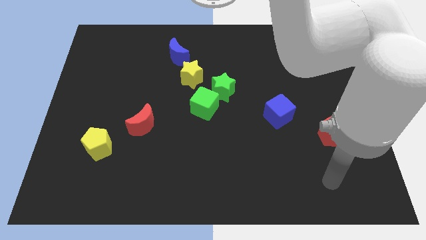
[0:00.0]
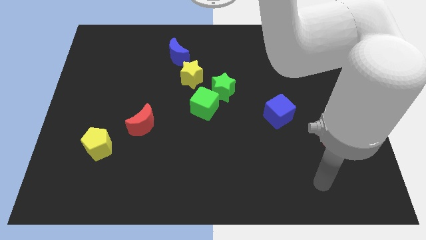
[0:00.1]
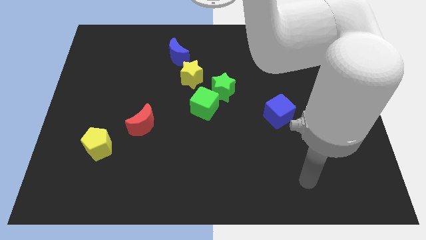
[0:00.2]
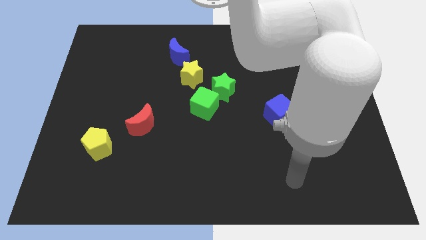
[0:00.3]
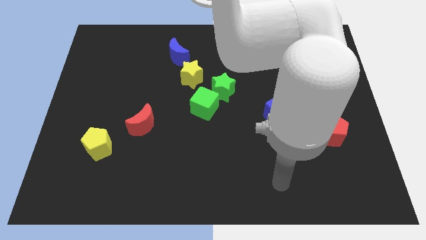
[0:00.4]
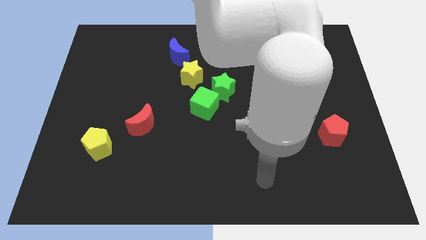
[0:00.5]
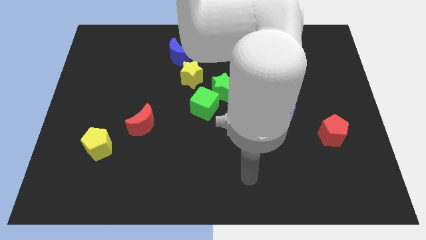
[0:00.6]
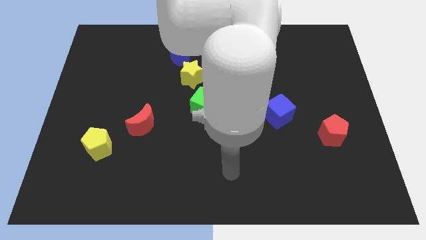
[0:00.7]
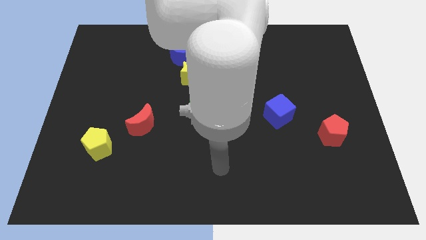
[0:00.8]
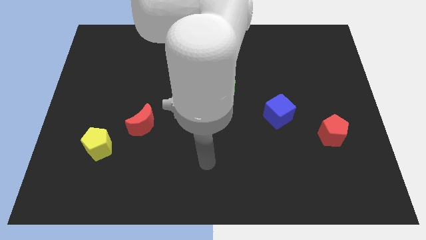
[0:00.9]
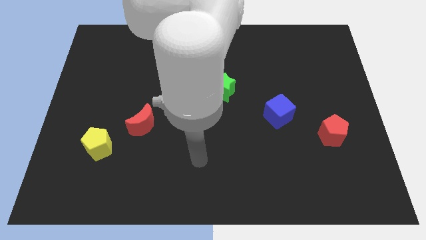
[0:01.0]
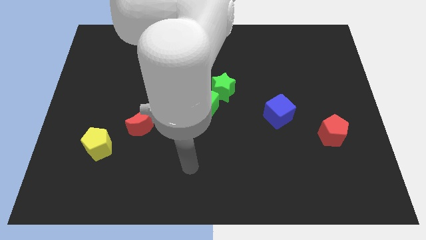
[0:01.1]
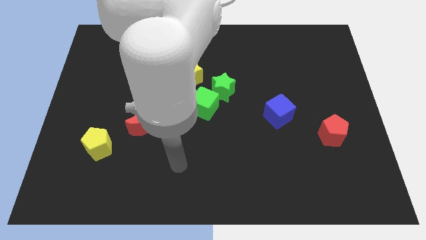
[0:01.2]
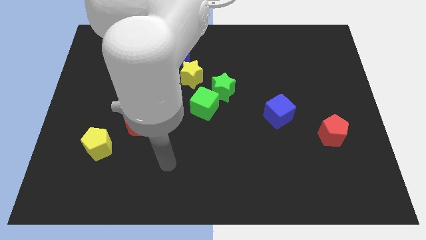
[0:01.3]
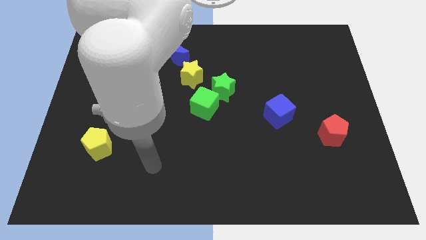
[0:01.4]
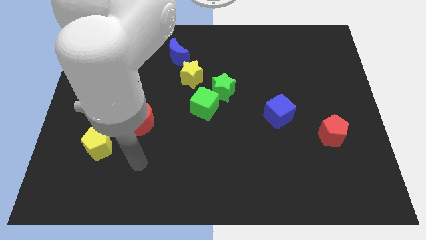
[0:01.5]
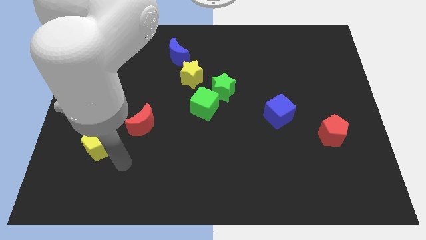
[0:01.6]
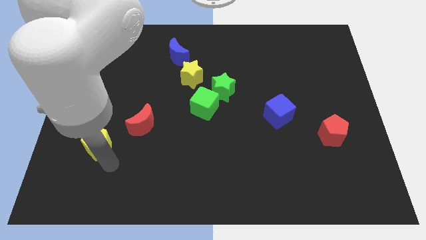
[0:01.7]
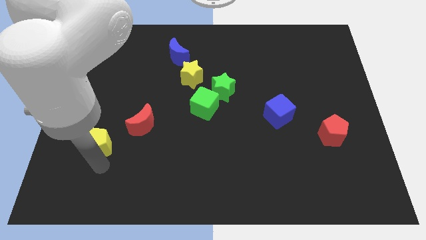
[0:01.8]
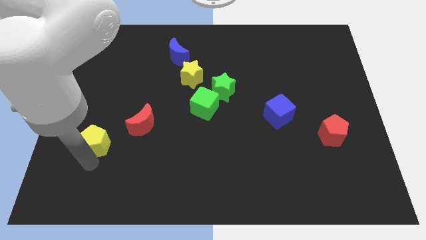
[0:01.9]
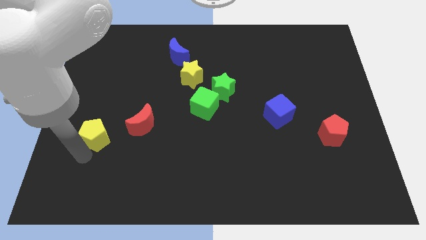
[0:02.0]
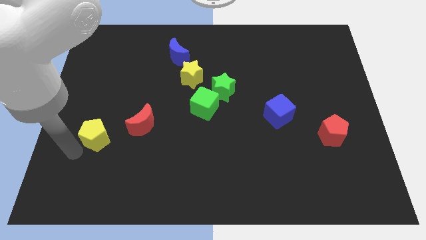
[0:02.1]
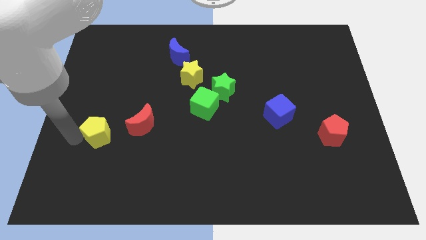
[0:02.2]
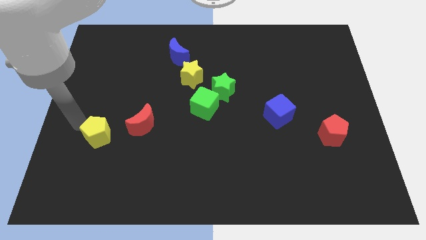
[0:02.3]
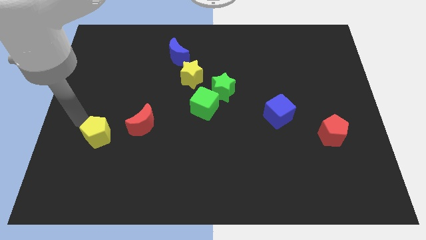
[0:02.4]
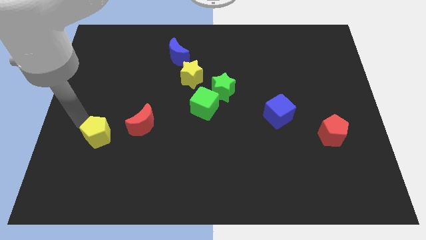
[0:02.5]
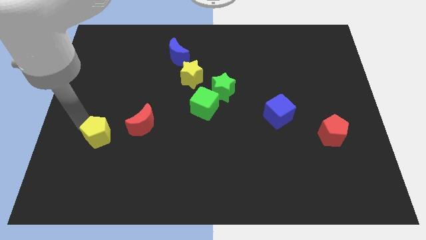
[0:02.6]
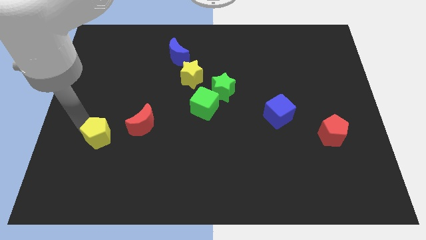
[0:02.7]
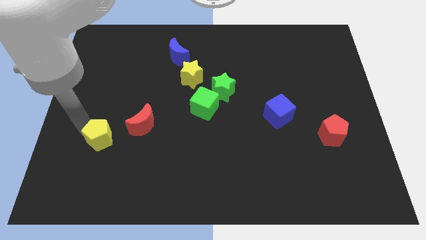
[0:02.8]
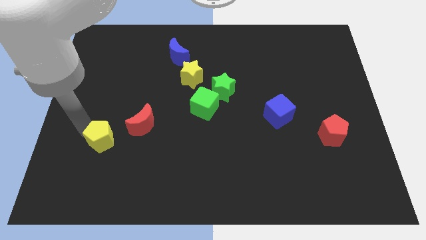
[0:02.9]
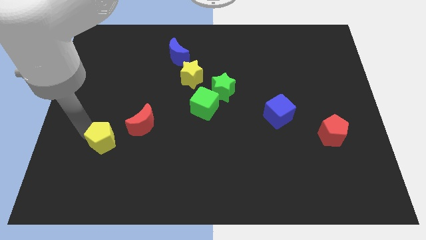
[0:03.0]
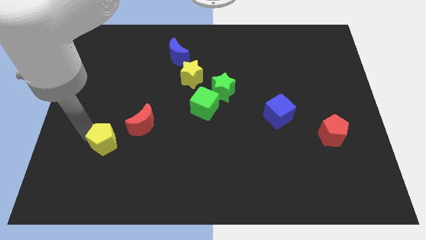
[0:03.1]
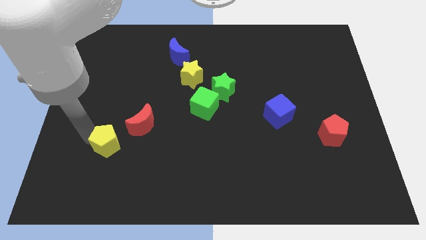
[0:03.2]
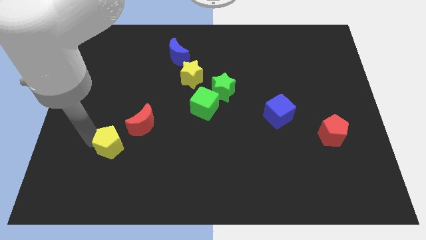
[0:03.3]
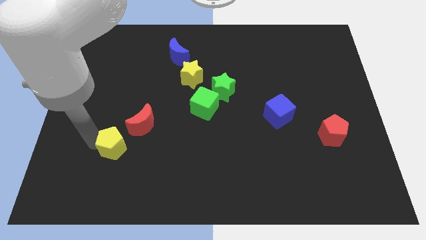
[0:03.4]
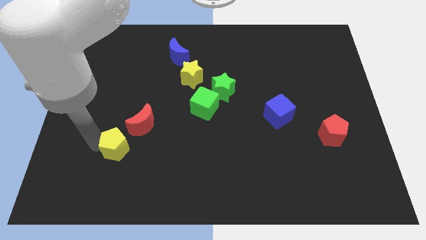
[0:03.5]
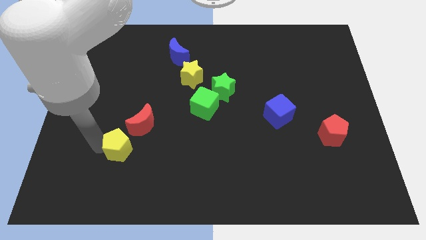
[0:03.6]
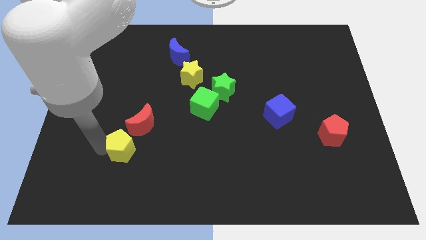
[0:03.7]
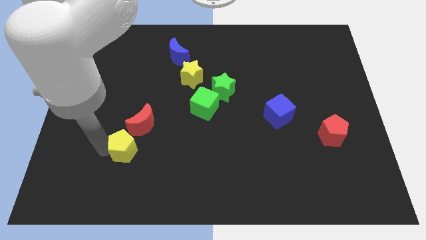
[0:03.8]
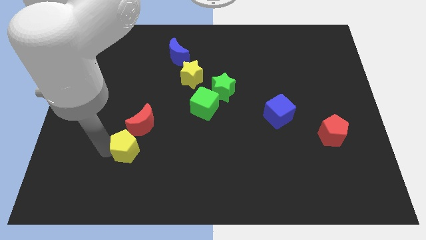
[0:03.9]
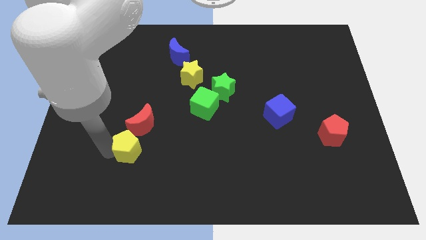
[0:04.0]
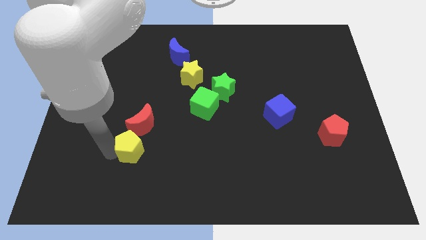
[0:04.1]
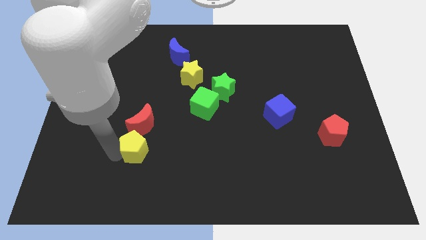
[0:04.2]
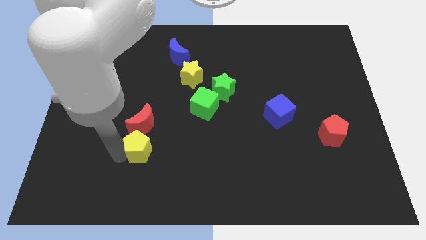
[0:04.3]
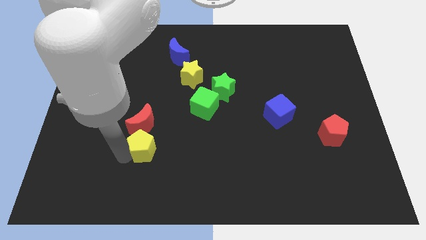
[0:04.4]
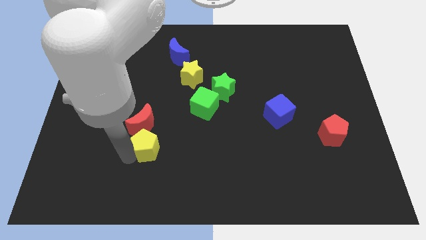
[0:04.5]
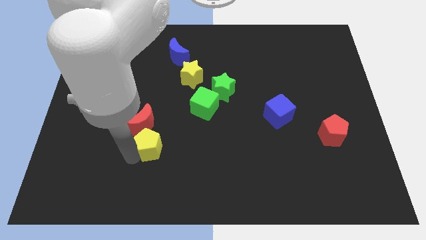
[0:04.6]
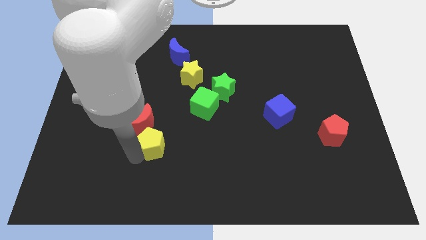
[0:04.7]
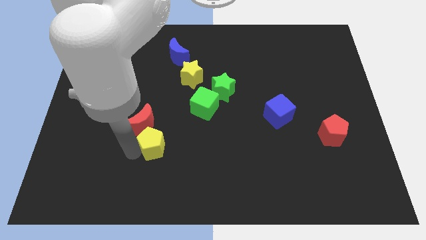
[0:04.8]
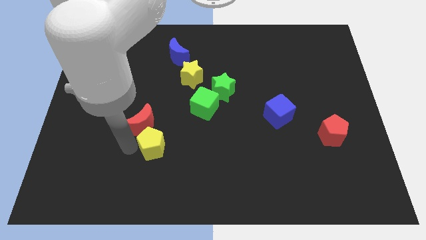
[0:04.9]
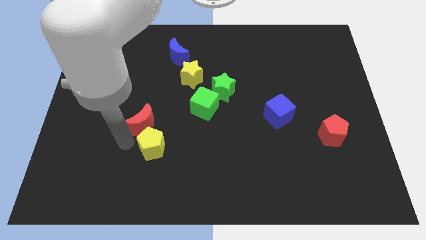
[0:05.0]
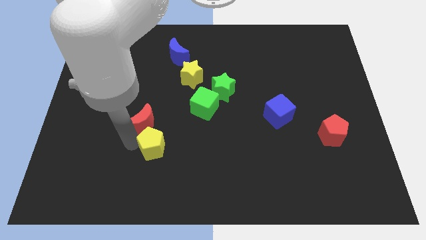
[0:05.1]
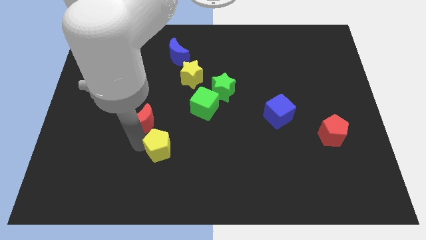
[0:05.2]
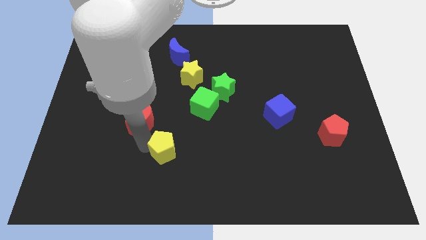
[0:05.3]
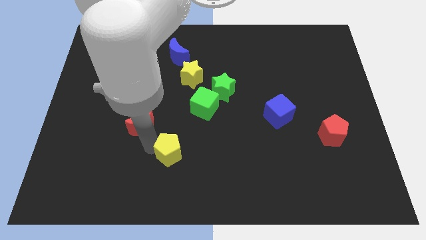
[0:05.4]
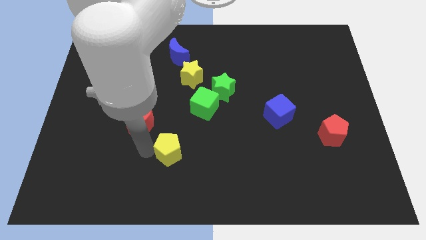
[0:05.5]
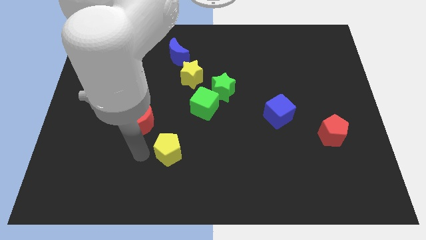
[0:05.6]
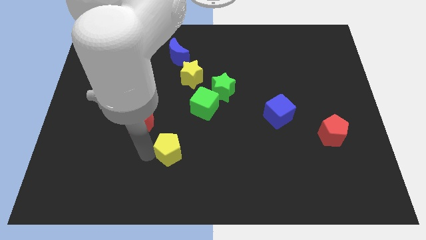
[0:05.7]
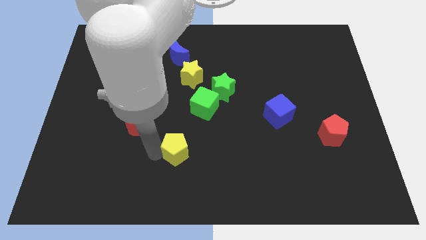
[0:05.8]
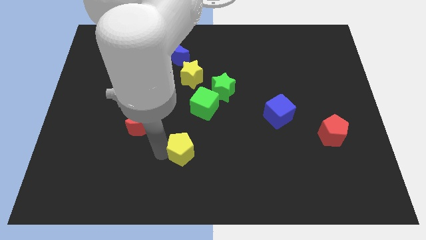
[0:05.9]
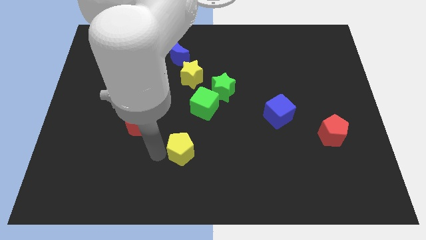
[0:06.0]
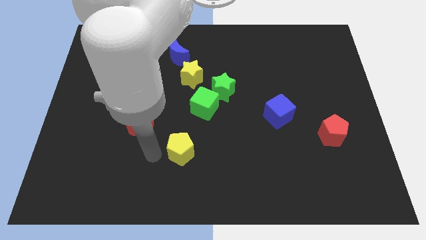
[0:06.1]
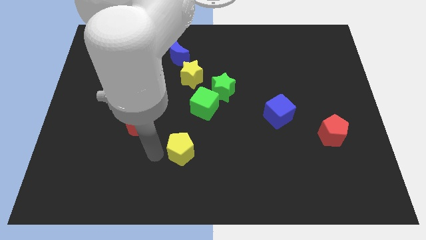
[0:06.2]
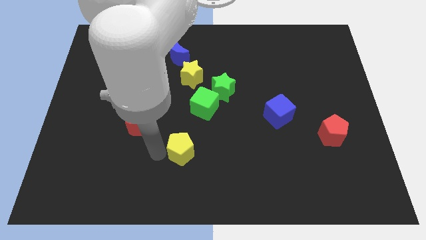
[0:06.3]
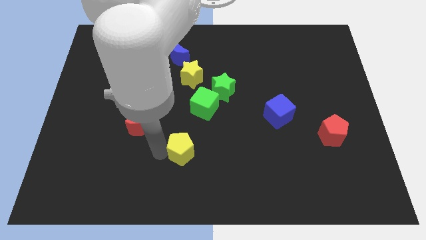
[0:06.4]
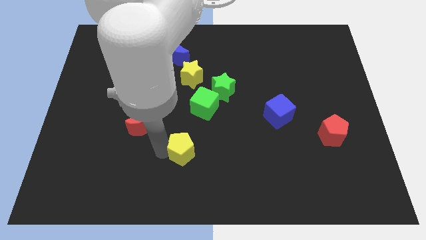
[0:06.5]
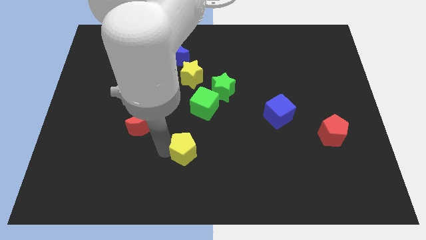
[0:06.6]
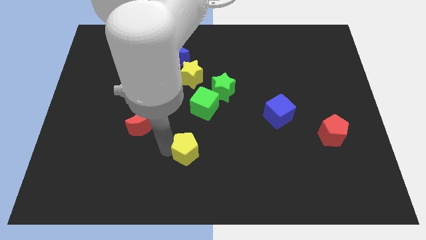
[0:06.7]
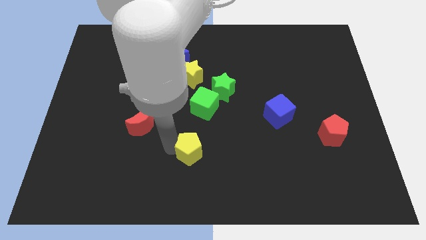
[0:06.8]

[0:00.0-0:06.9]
push the yellow pentagon right

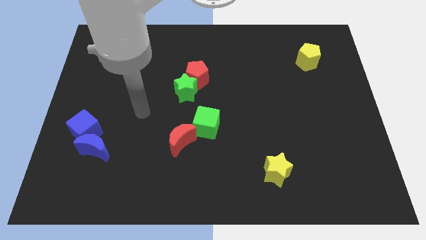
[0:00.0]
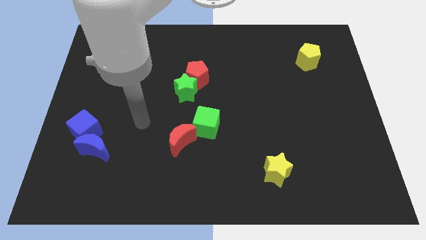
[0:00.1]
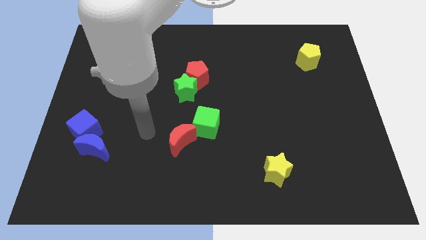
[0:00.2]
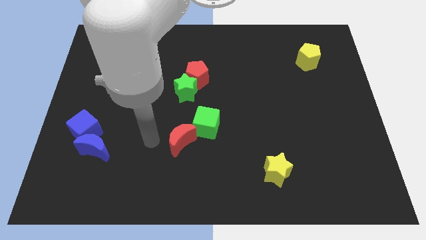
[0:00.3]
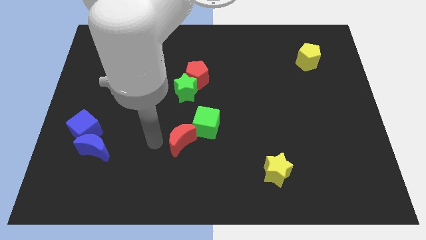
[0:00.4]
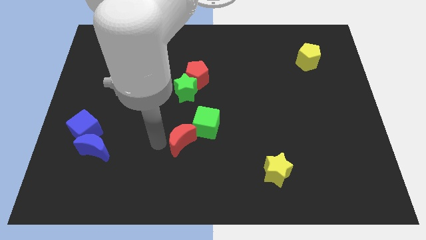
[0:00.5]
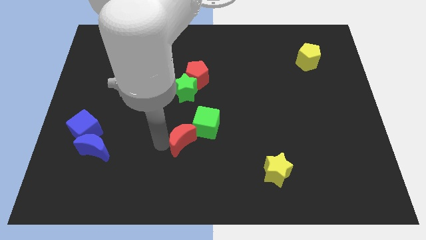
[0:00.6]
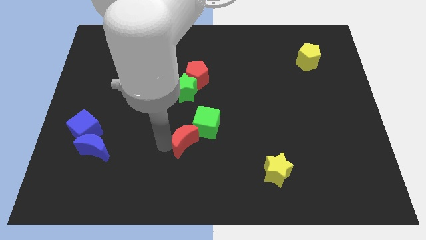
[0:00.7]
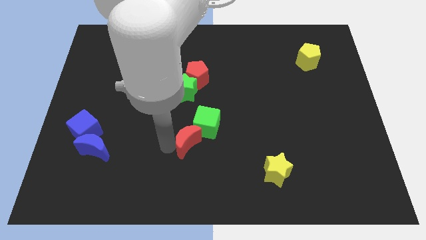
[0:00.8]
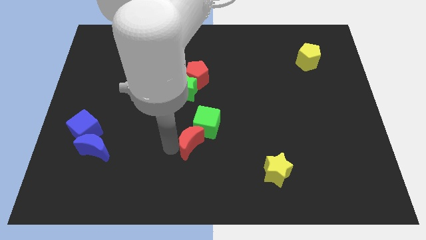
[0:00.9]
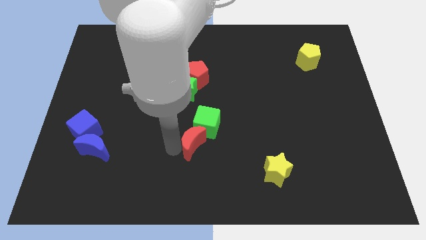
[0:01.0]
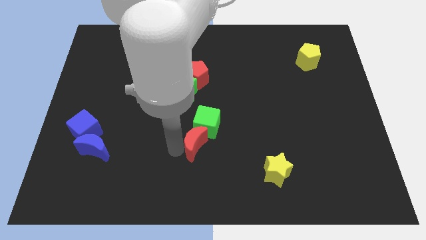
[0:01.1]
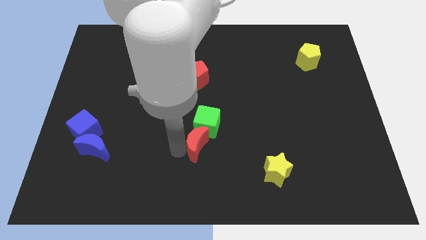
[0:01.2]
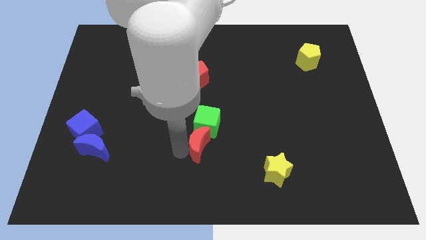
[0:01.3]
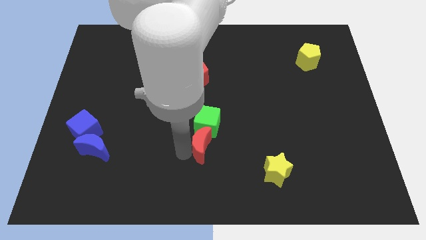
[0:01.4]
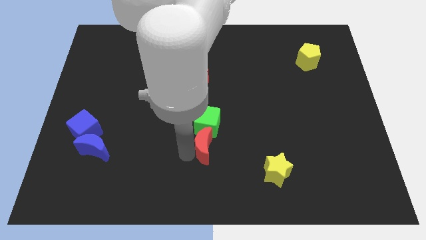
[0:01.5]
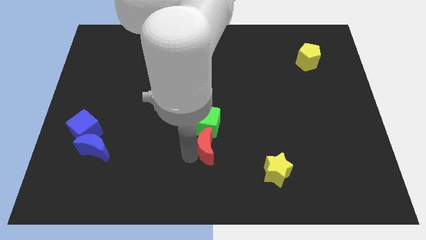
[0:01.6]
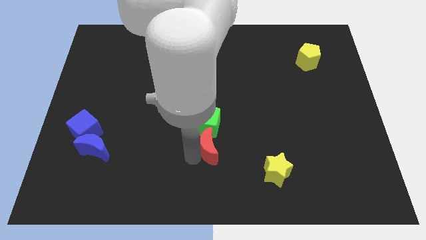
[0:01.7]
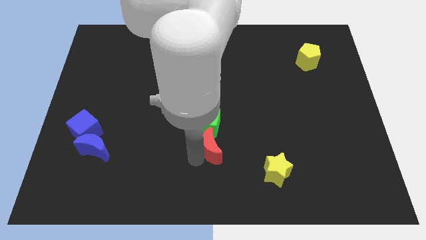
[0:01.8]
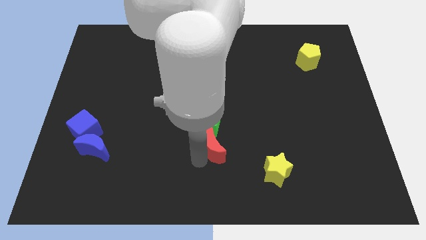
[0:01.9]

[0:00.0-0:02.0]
slightly move the red moon right
